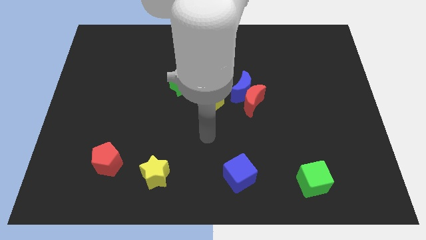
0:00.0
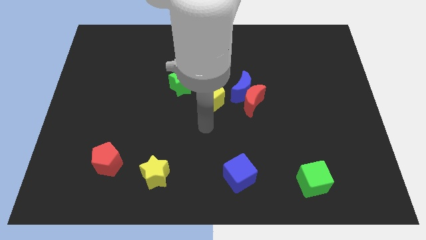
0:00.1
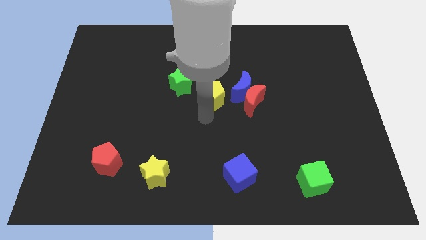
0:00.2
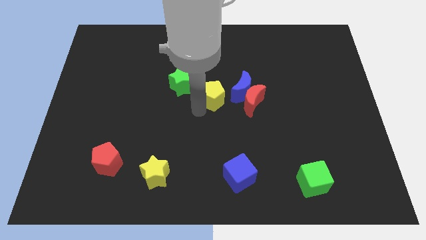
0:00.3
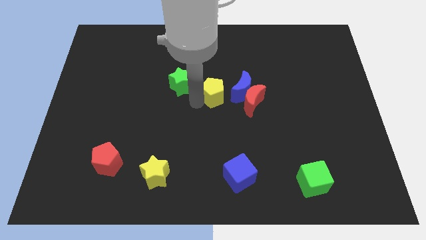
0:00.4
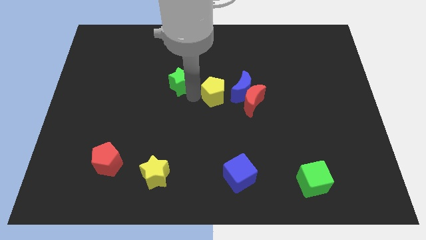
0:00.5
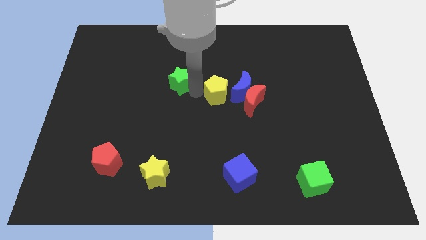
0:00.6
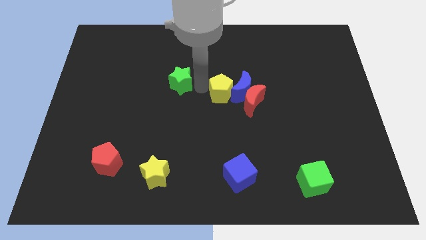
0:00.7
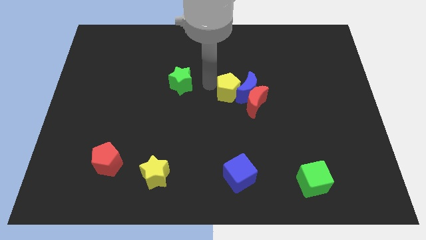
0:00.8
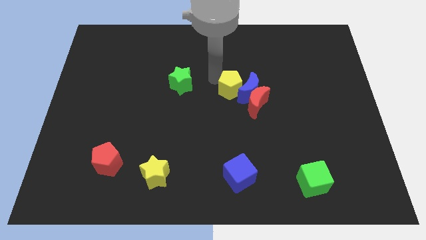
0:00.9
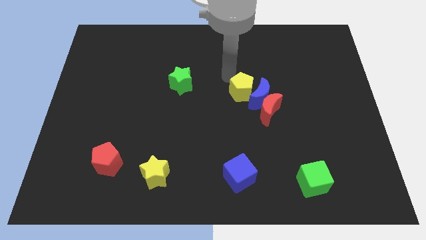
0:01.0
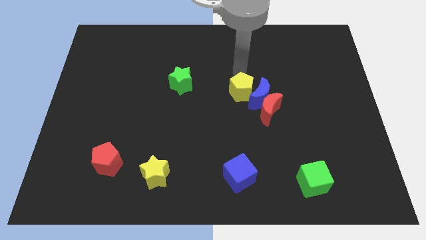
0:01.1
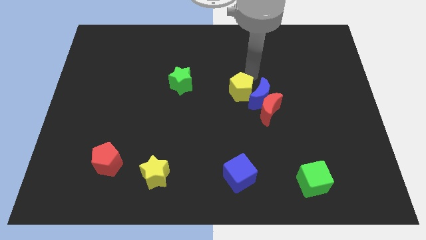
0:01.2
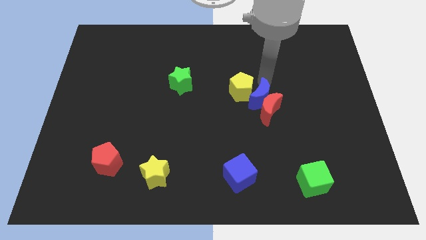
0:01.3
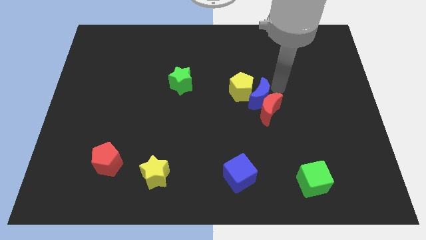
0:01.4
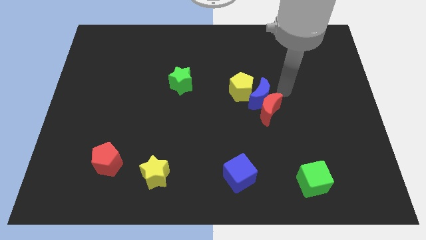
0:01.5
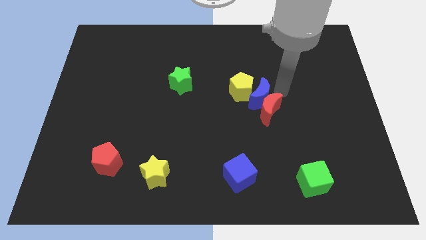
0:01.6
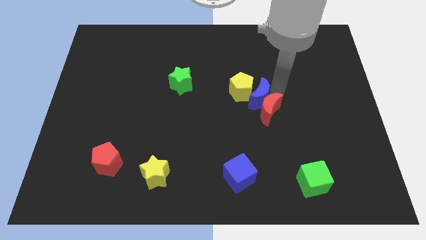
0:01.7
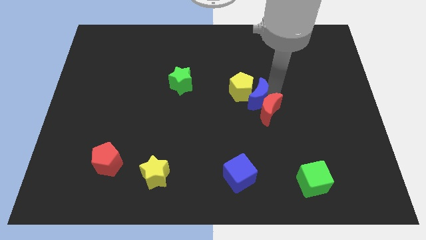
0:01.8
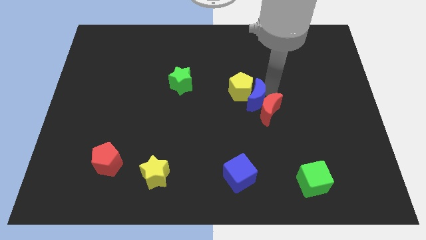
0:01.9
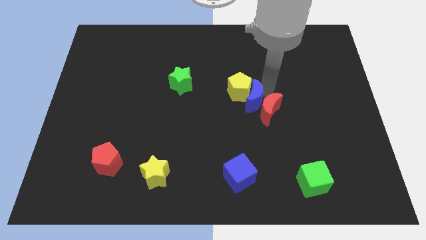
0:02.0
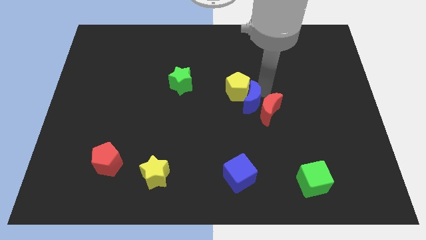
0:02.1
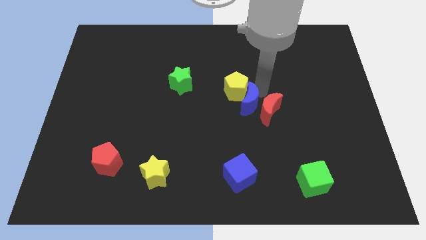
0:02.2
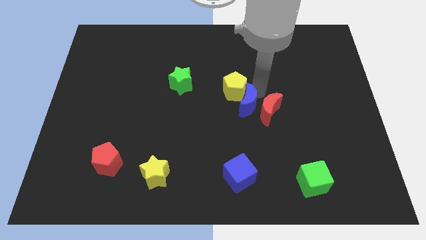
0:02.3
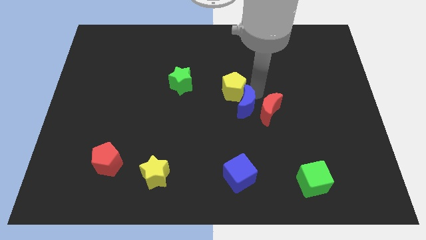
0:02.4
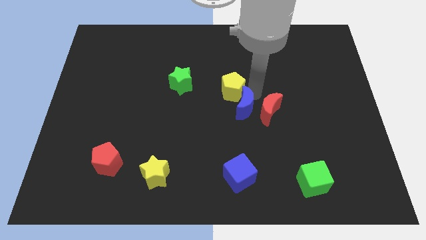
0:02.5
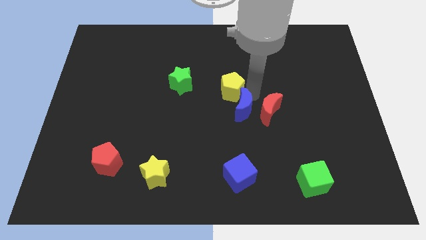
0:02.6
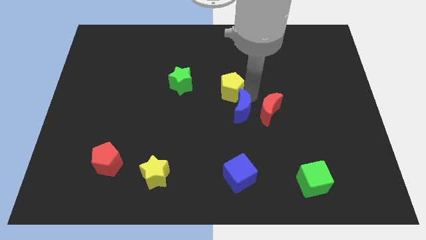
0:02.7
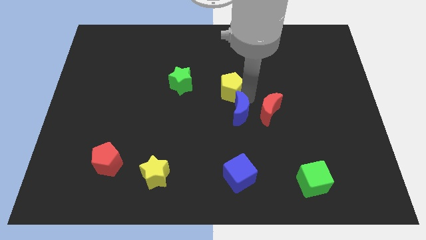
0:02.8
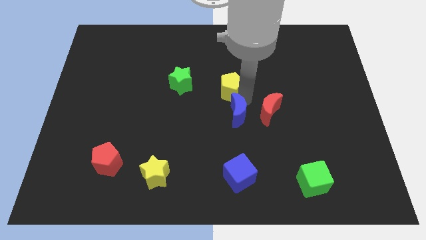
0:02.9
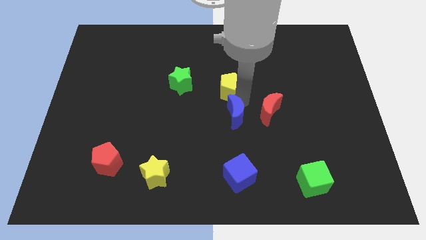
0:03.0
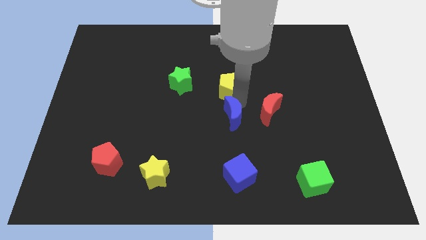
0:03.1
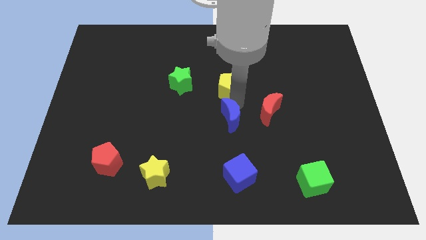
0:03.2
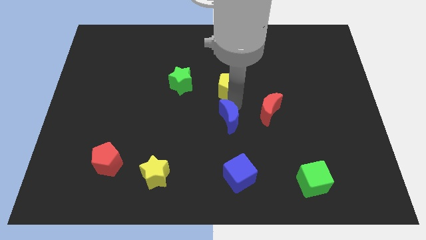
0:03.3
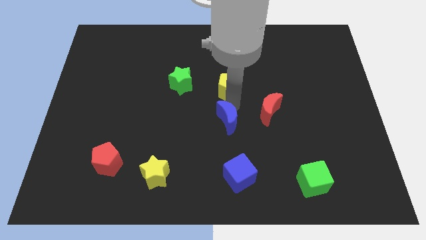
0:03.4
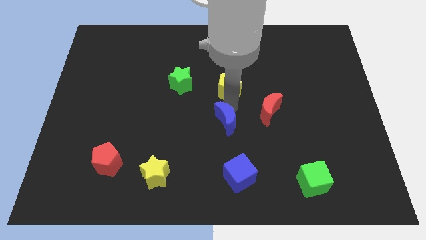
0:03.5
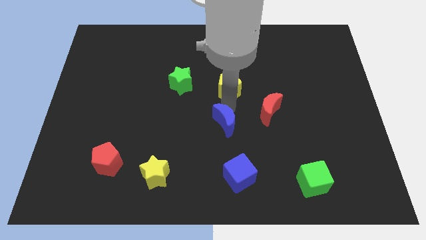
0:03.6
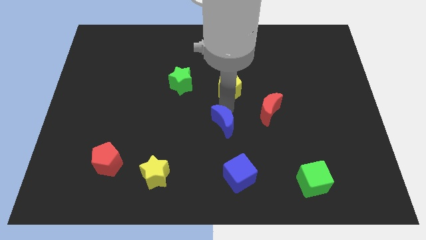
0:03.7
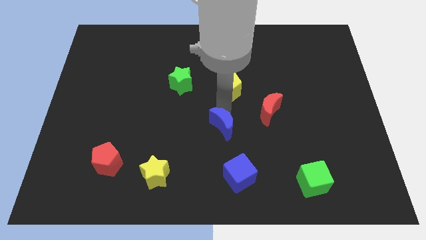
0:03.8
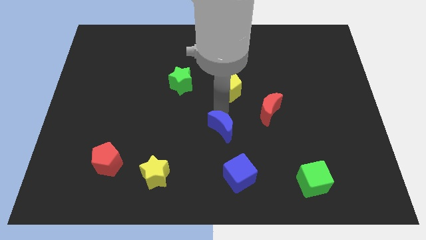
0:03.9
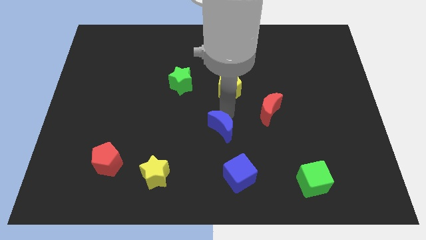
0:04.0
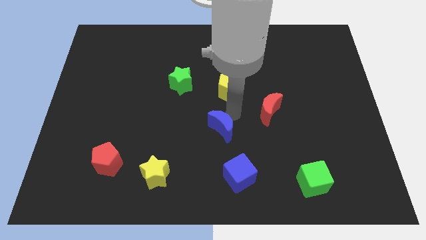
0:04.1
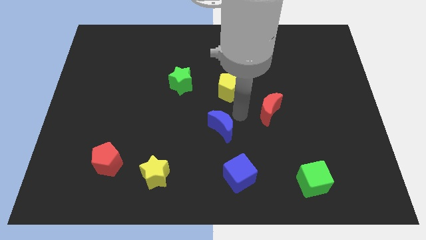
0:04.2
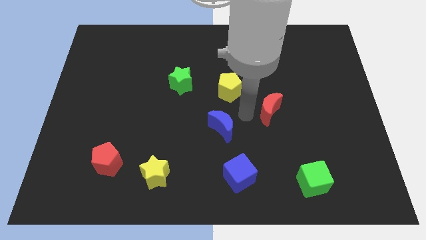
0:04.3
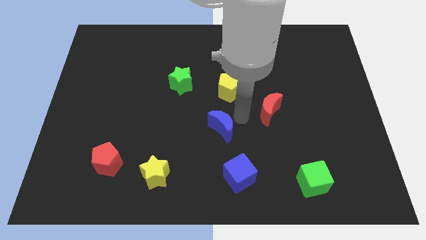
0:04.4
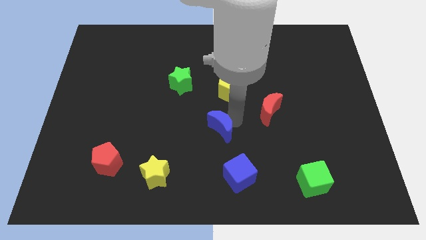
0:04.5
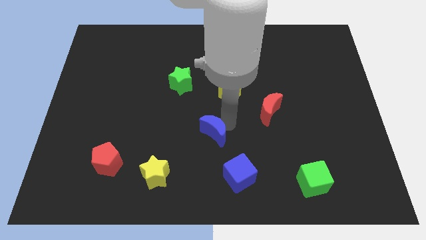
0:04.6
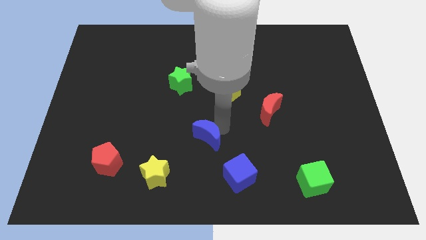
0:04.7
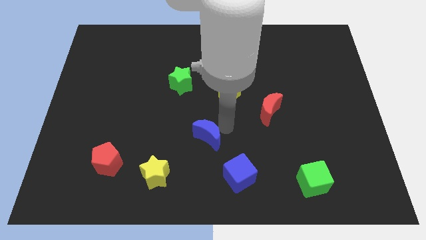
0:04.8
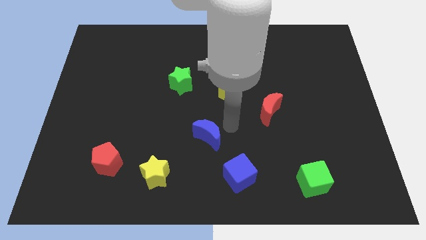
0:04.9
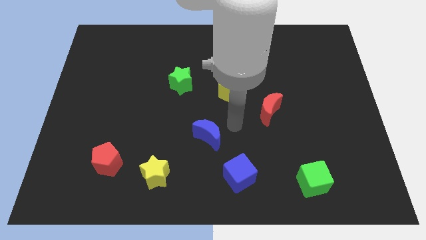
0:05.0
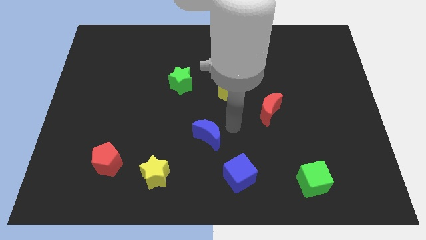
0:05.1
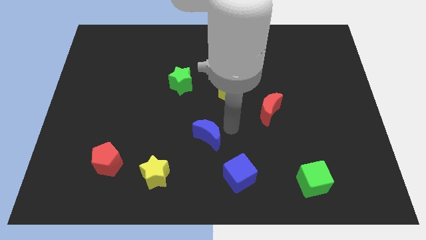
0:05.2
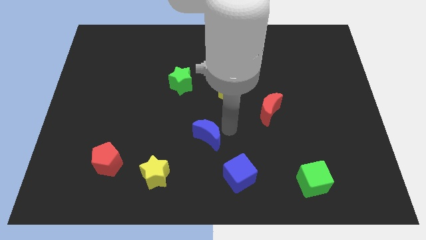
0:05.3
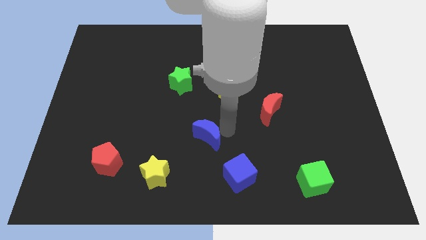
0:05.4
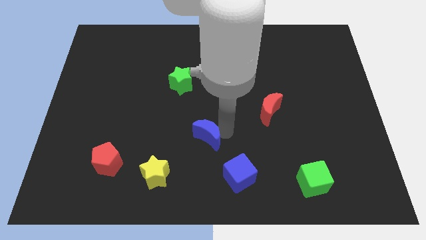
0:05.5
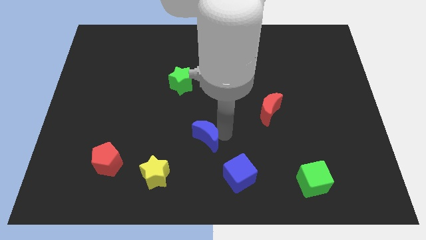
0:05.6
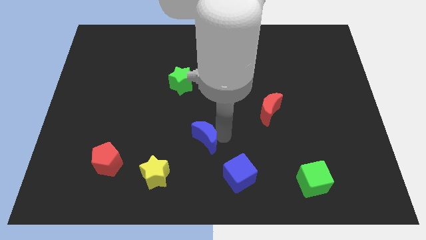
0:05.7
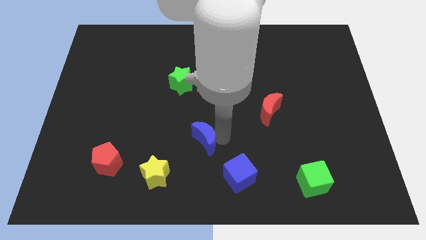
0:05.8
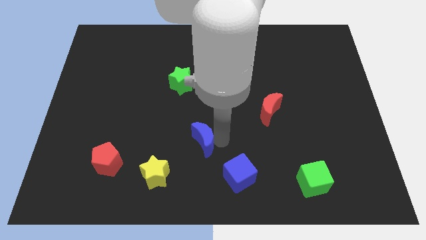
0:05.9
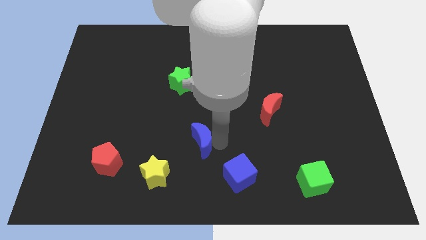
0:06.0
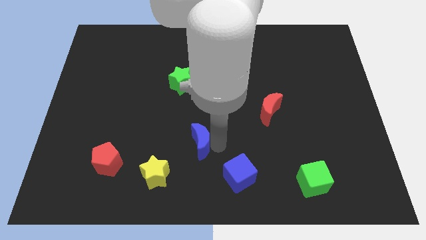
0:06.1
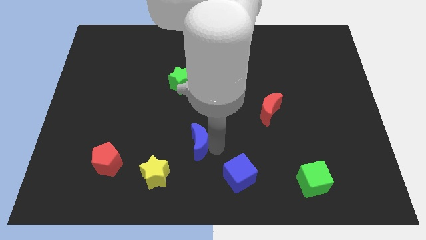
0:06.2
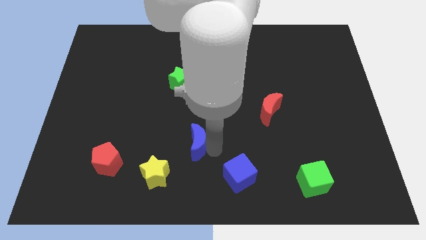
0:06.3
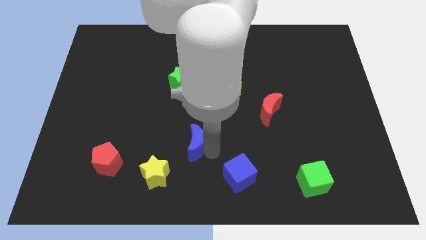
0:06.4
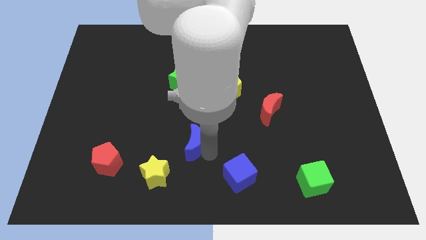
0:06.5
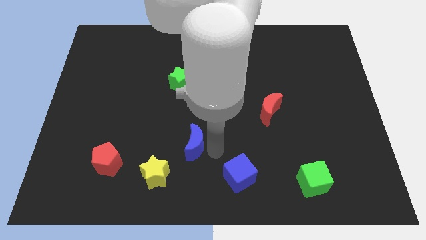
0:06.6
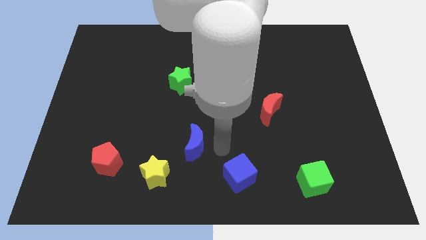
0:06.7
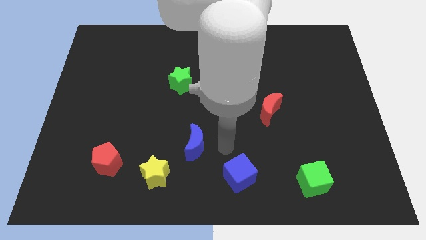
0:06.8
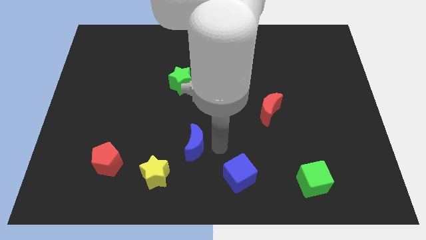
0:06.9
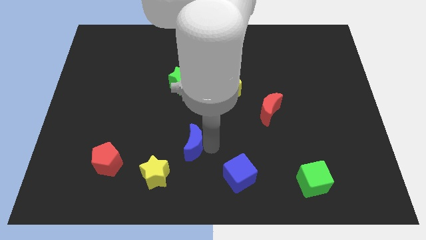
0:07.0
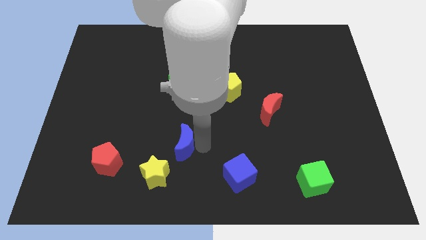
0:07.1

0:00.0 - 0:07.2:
push the blue moon down and then to the left

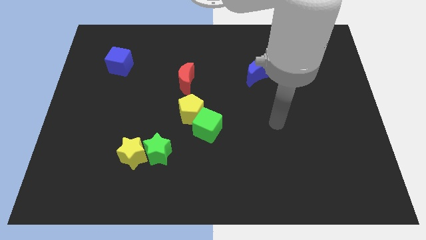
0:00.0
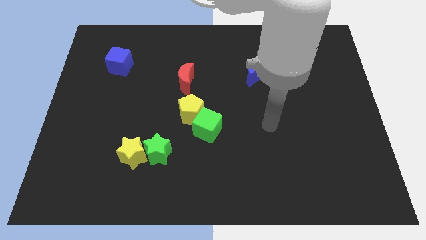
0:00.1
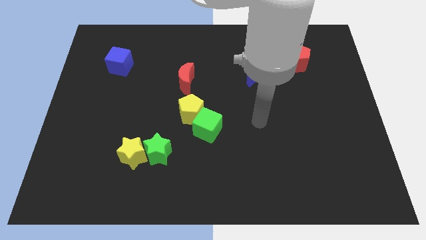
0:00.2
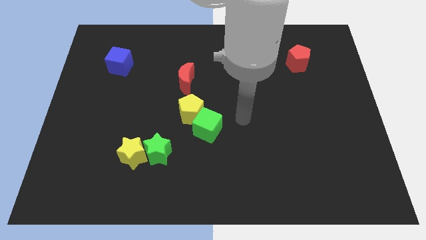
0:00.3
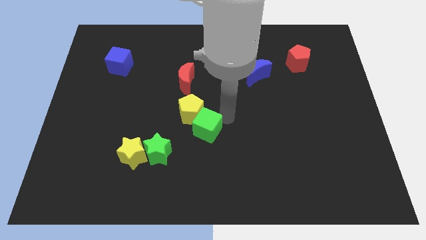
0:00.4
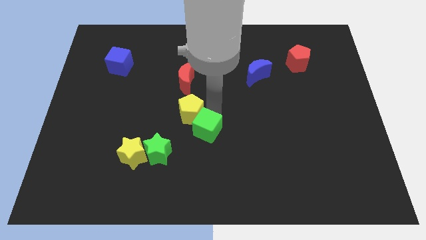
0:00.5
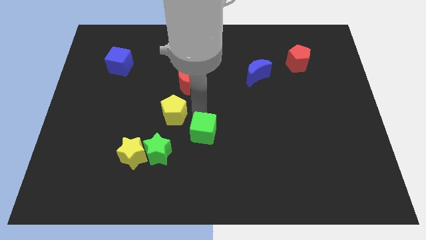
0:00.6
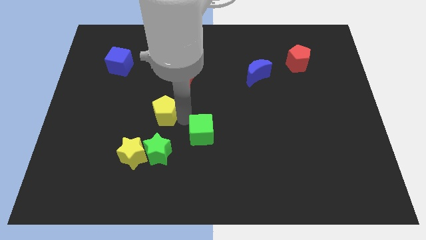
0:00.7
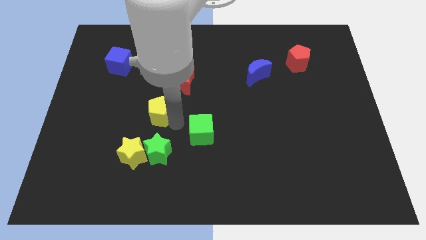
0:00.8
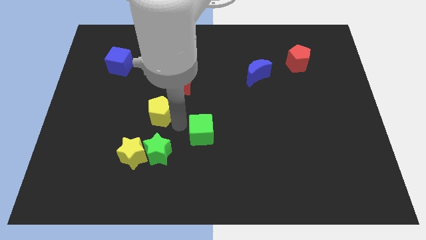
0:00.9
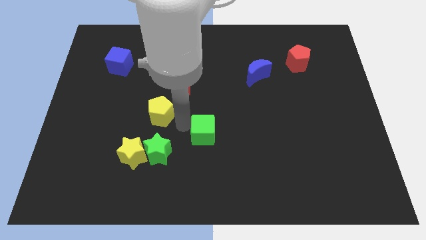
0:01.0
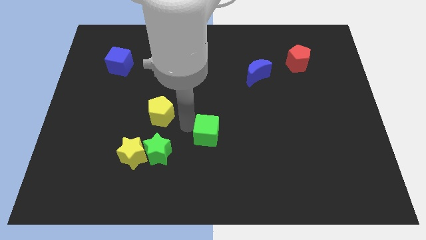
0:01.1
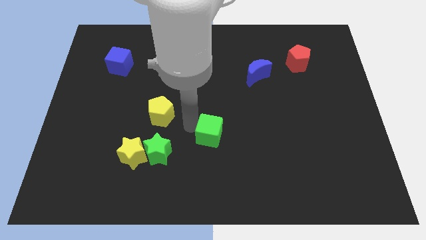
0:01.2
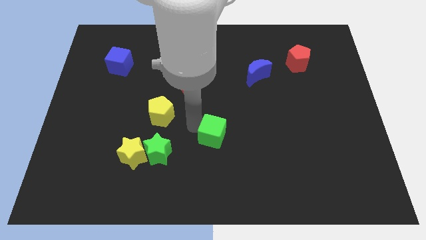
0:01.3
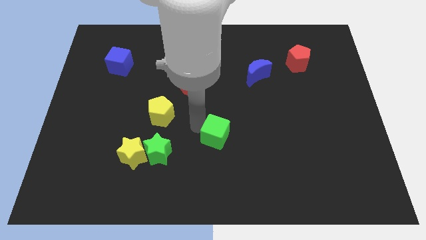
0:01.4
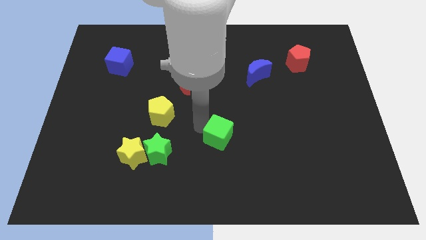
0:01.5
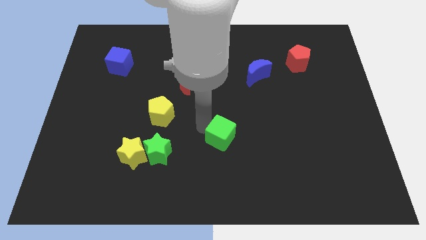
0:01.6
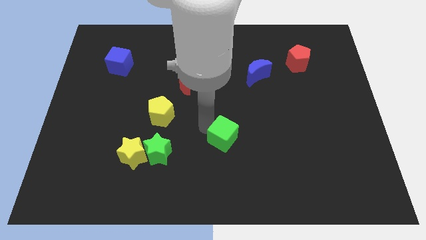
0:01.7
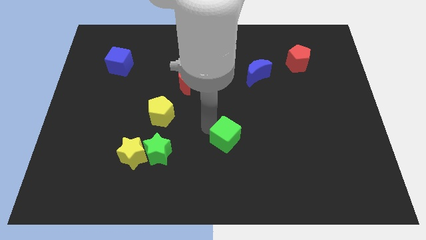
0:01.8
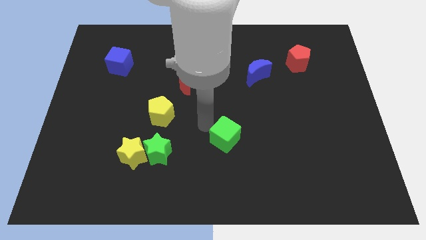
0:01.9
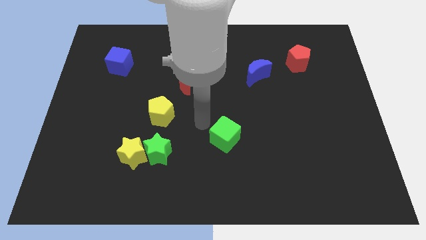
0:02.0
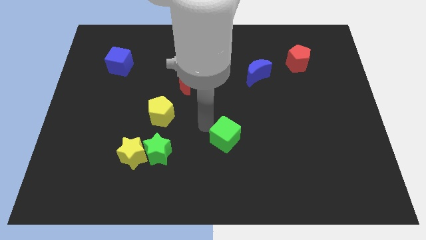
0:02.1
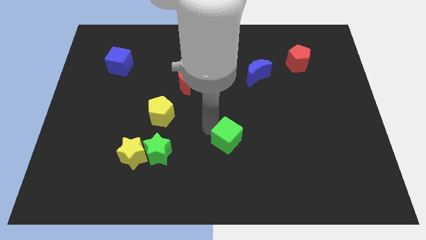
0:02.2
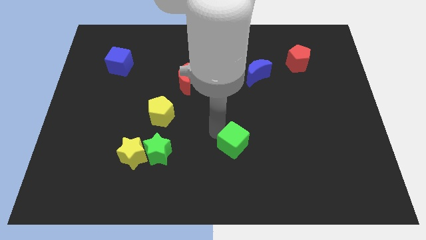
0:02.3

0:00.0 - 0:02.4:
move the green cube downwards and then right a little
